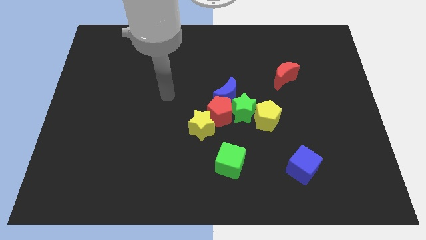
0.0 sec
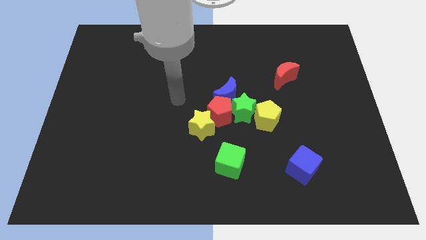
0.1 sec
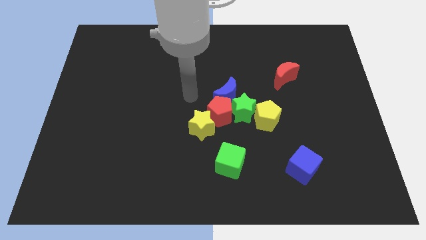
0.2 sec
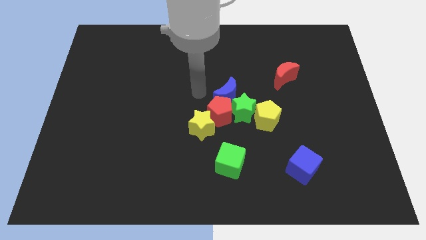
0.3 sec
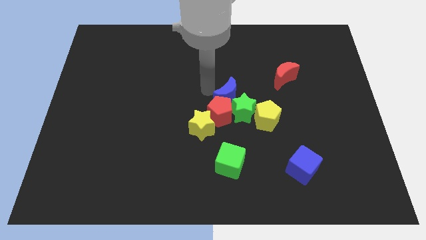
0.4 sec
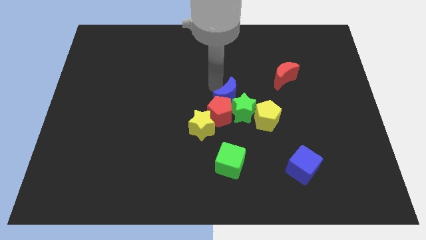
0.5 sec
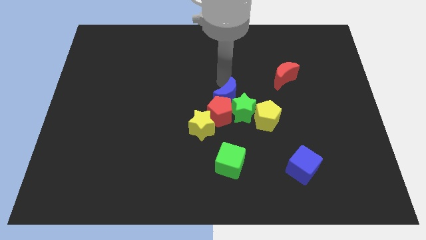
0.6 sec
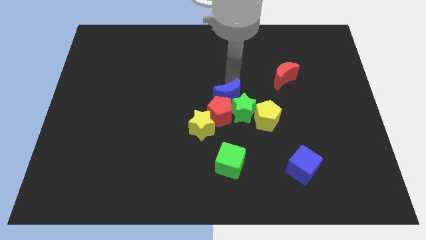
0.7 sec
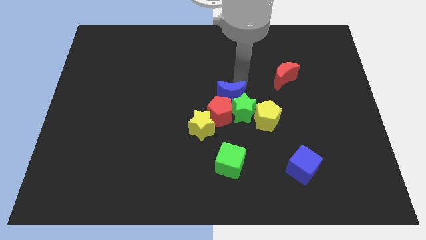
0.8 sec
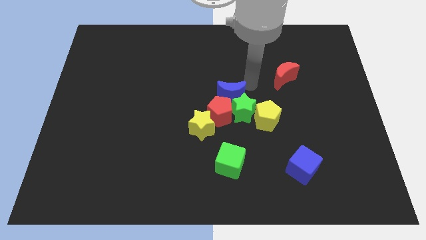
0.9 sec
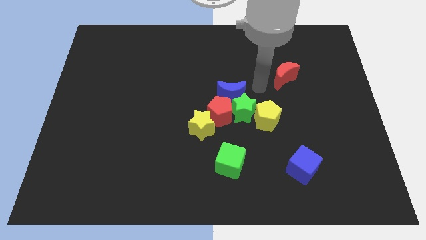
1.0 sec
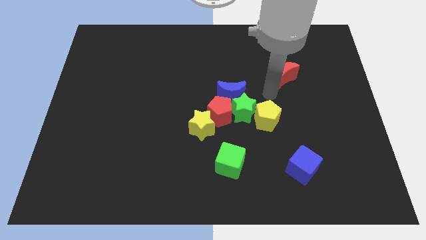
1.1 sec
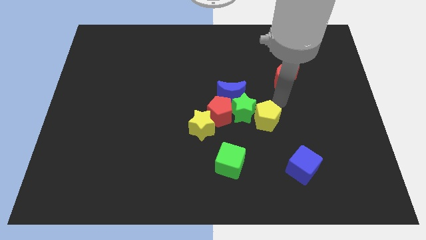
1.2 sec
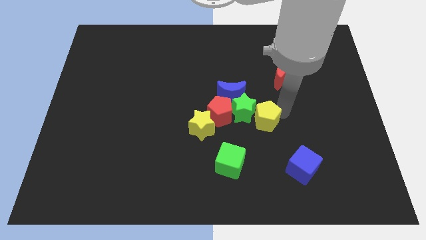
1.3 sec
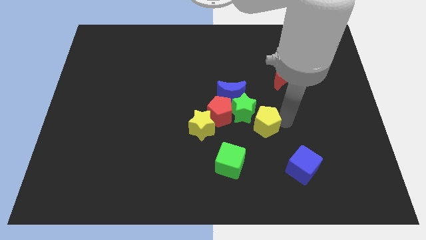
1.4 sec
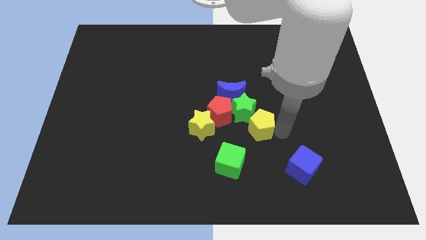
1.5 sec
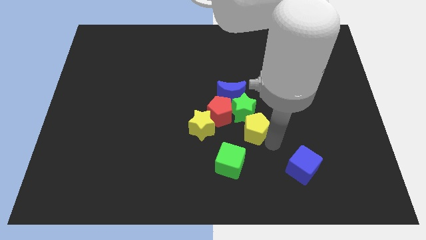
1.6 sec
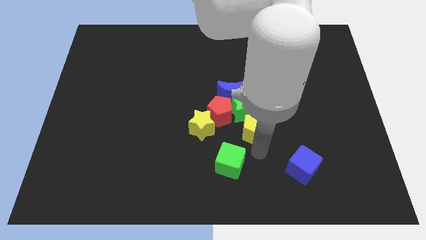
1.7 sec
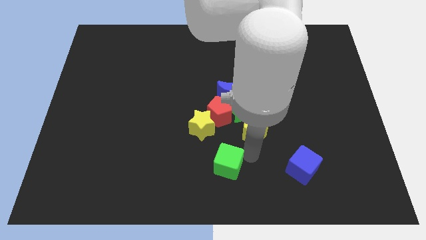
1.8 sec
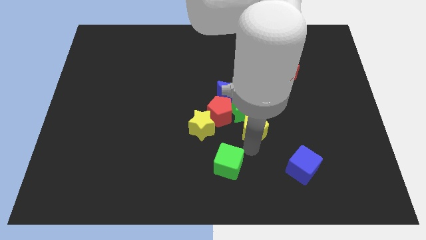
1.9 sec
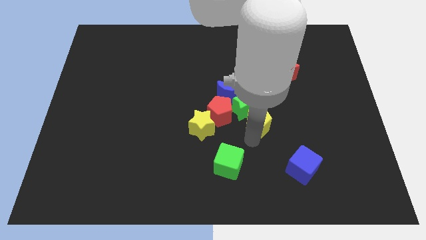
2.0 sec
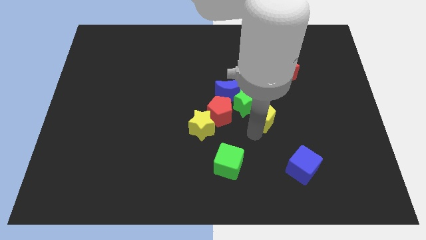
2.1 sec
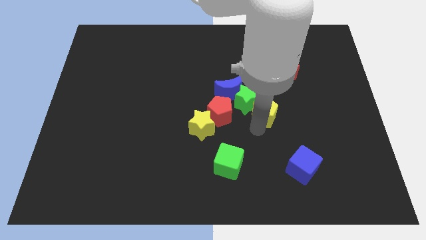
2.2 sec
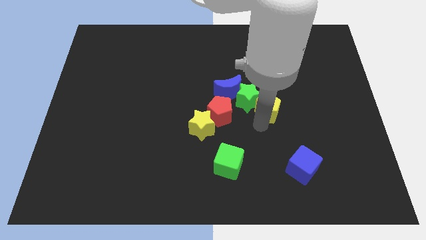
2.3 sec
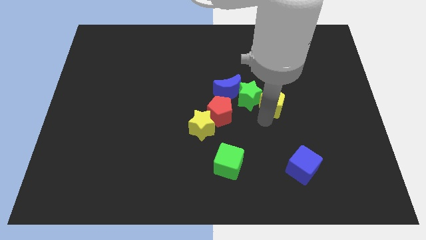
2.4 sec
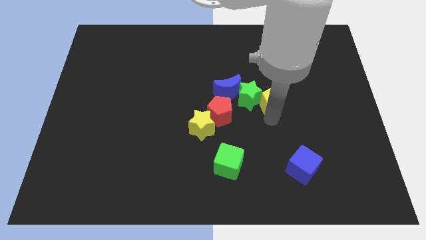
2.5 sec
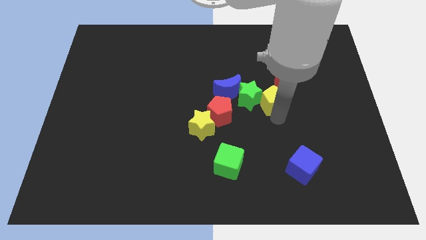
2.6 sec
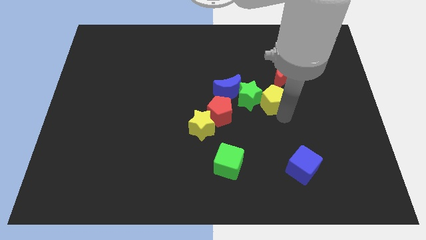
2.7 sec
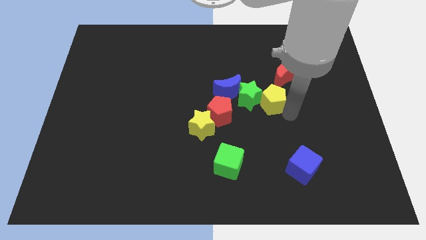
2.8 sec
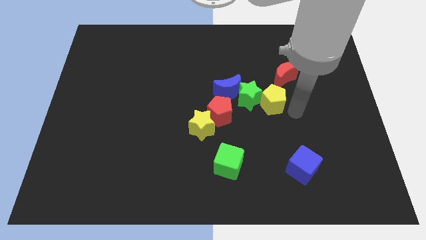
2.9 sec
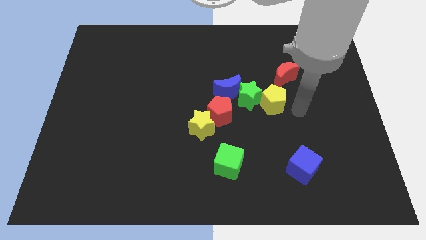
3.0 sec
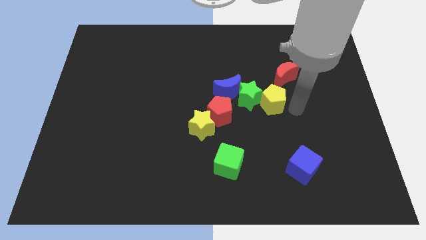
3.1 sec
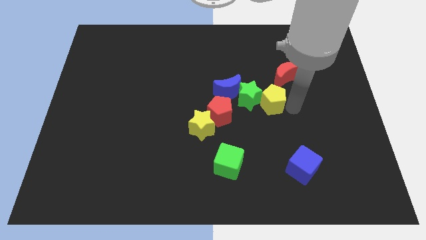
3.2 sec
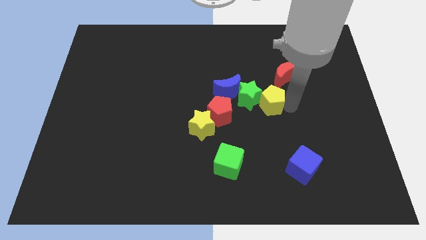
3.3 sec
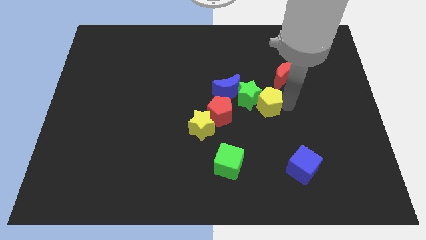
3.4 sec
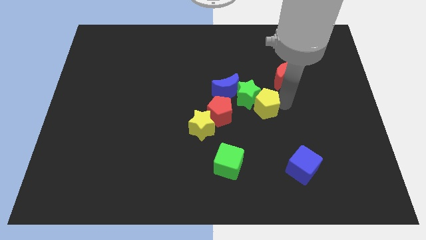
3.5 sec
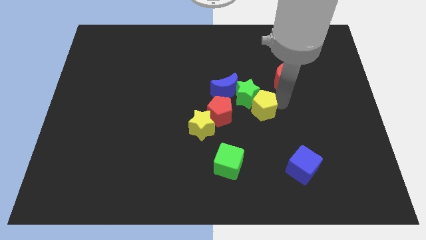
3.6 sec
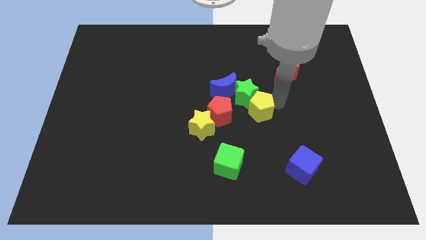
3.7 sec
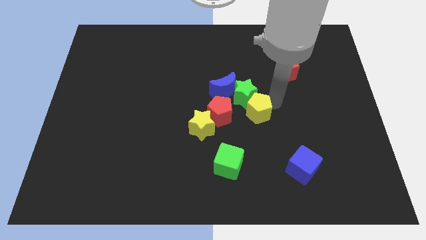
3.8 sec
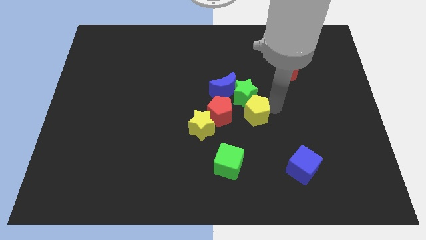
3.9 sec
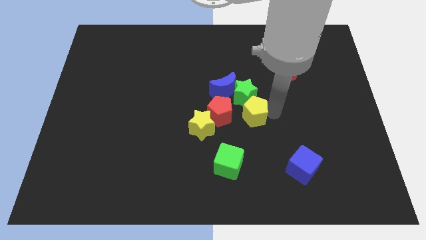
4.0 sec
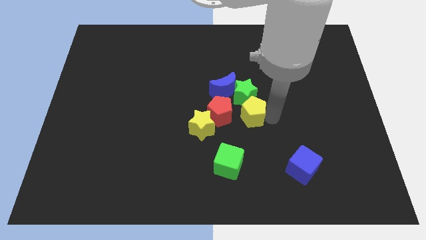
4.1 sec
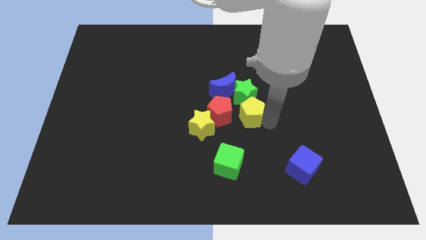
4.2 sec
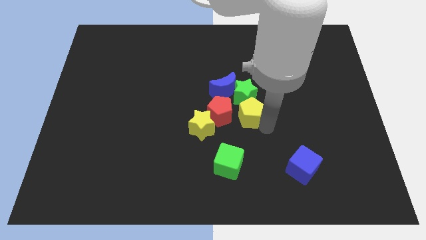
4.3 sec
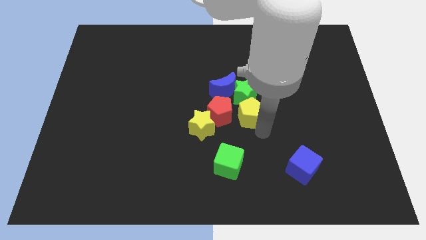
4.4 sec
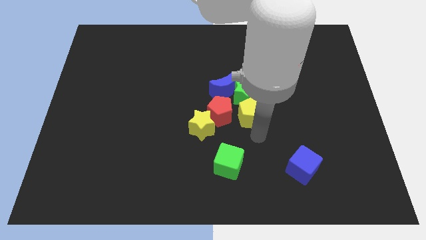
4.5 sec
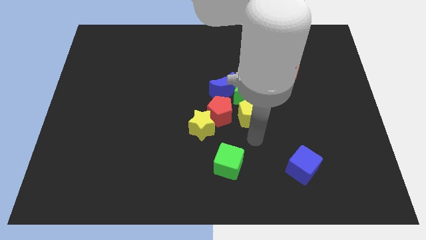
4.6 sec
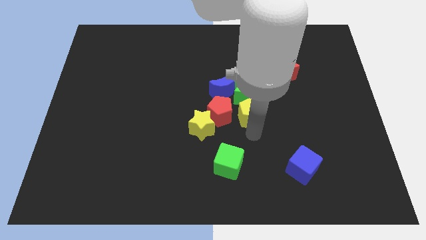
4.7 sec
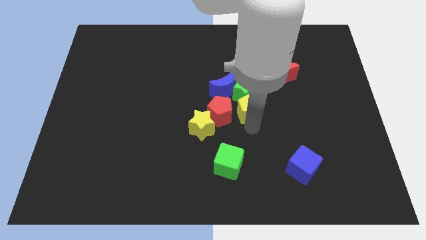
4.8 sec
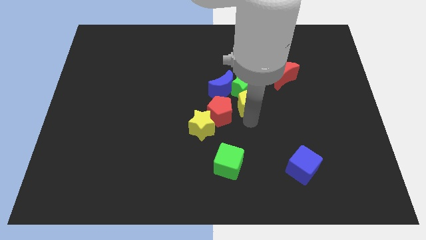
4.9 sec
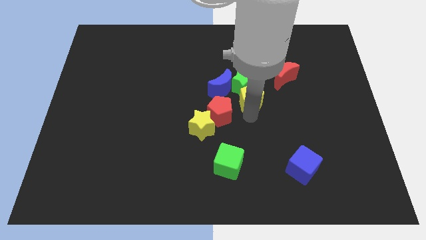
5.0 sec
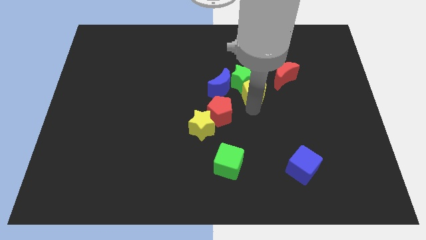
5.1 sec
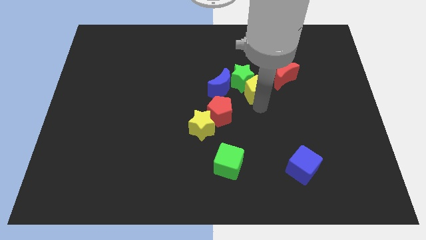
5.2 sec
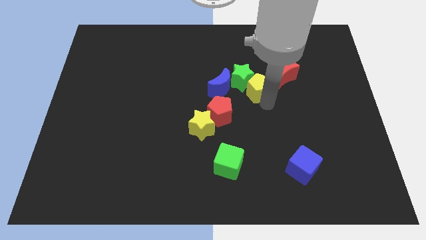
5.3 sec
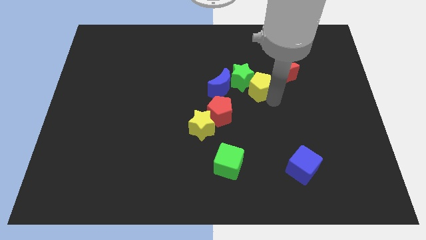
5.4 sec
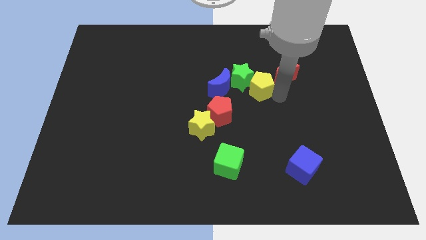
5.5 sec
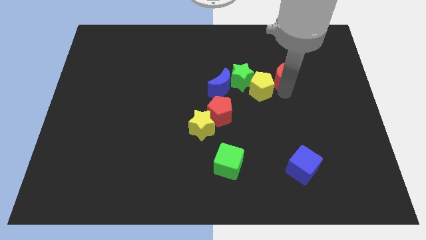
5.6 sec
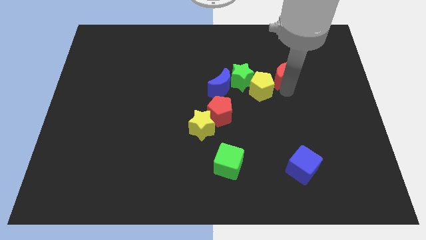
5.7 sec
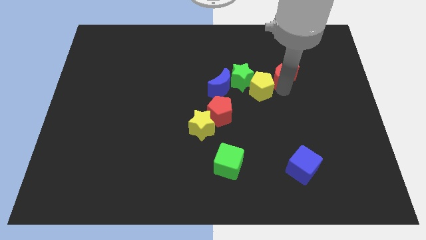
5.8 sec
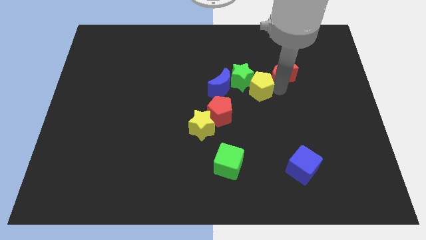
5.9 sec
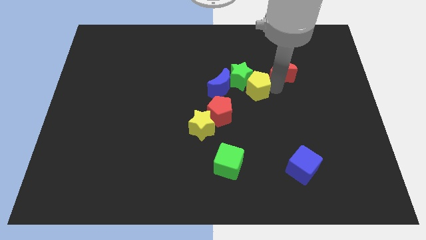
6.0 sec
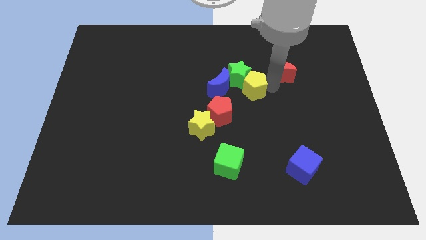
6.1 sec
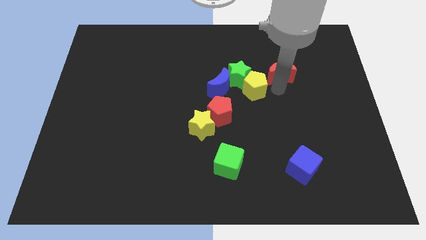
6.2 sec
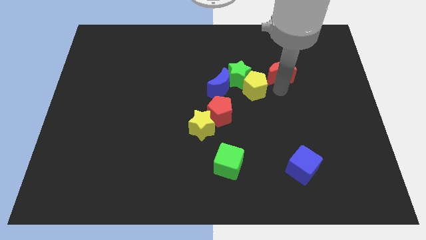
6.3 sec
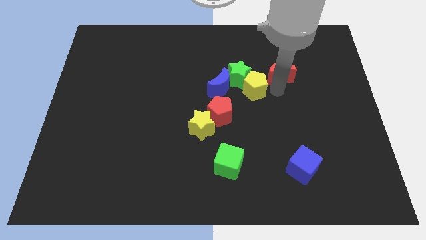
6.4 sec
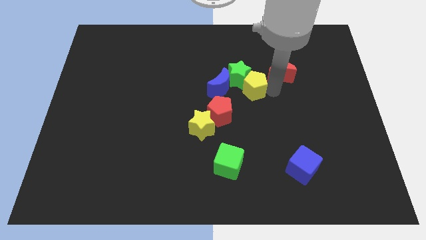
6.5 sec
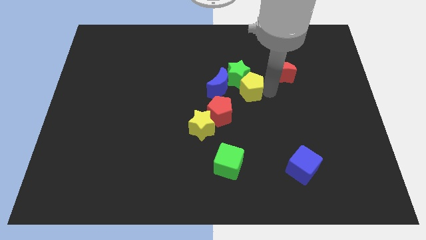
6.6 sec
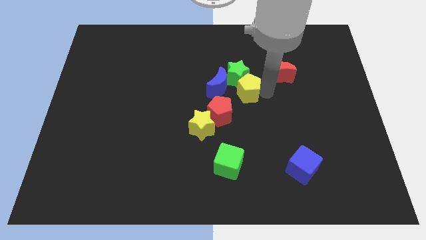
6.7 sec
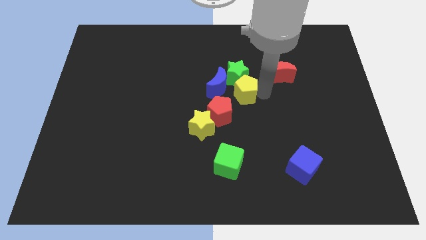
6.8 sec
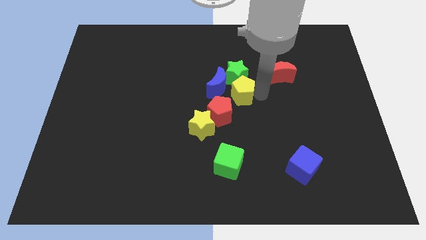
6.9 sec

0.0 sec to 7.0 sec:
slide the yellow pentagon towards the blue moon
